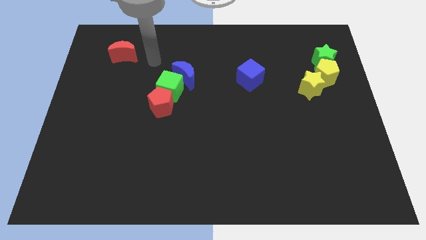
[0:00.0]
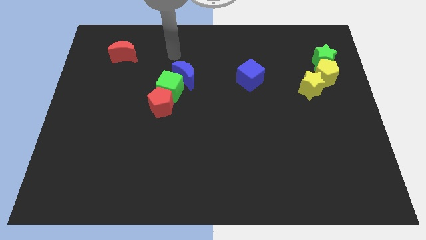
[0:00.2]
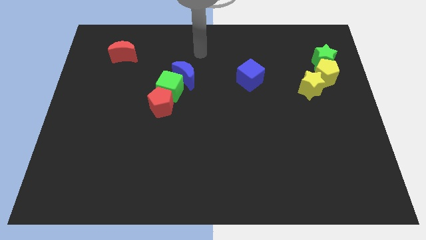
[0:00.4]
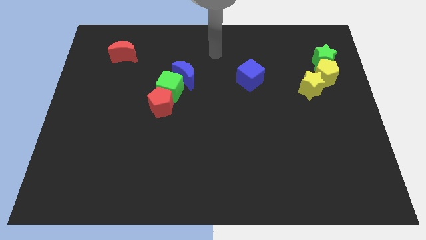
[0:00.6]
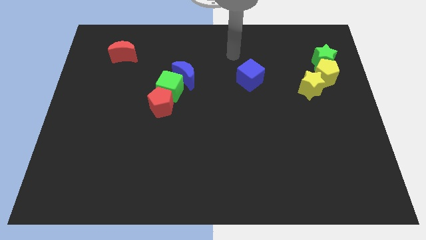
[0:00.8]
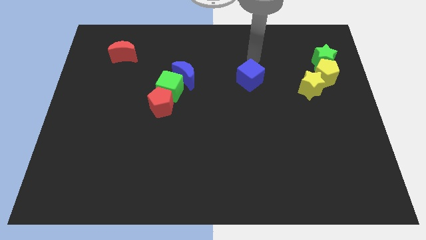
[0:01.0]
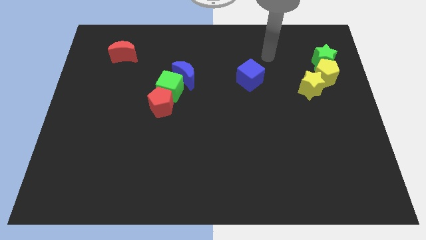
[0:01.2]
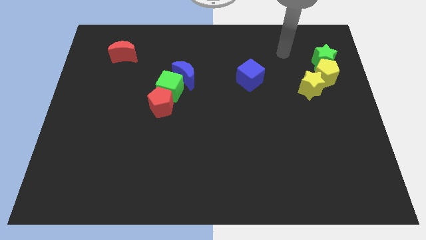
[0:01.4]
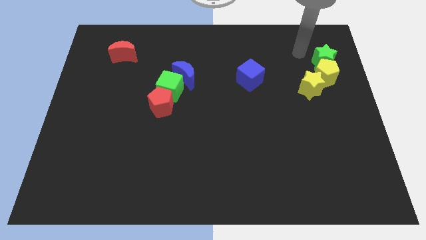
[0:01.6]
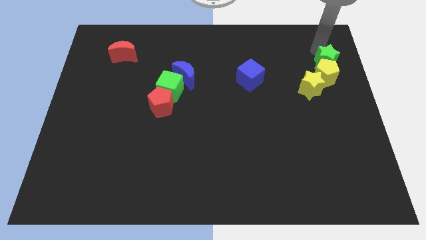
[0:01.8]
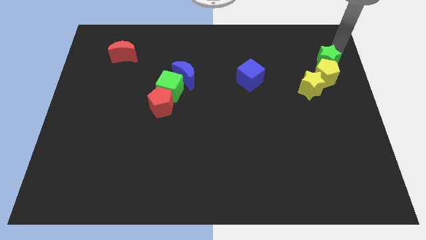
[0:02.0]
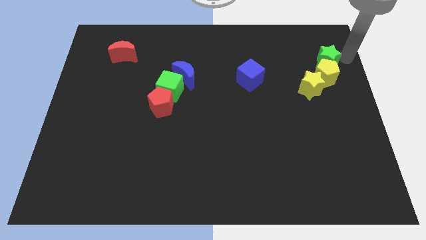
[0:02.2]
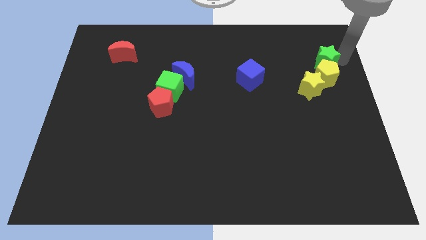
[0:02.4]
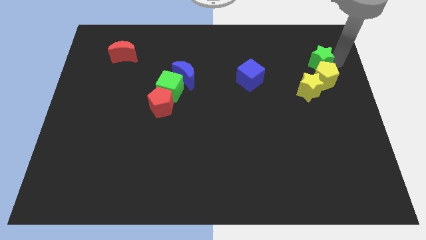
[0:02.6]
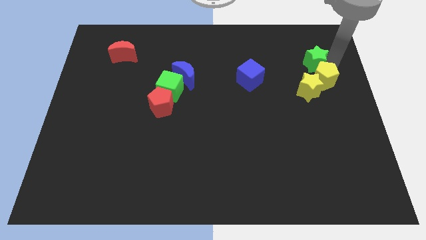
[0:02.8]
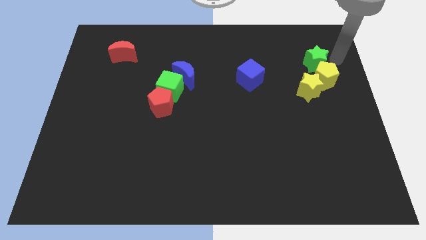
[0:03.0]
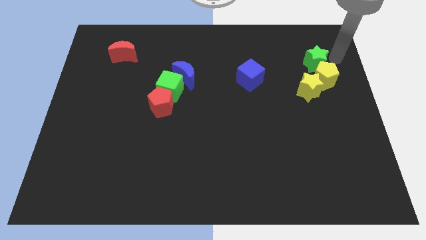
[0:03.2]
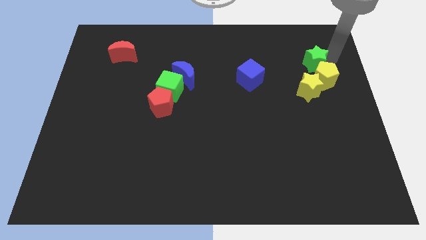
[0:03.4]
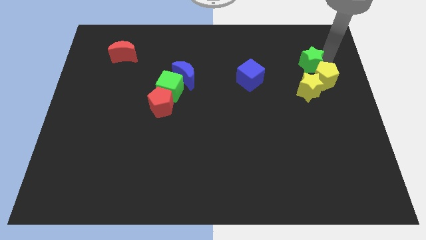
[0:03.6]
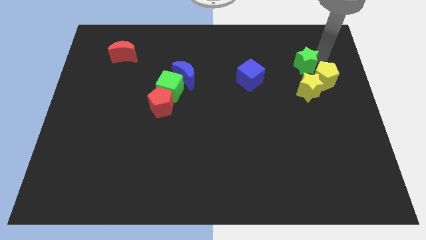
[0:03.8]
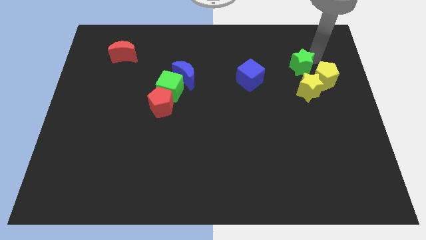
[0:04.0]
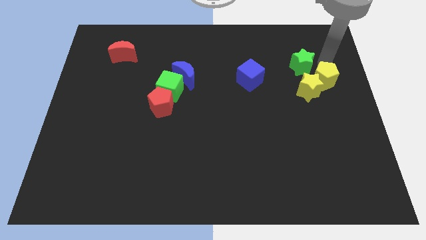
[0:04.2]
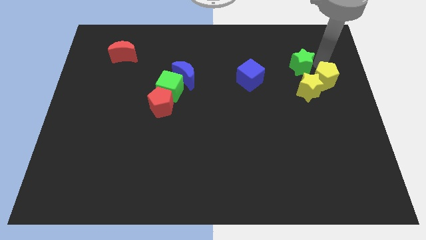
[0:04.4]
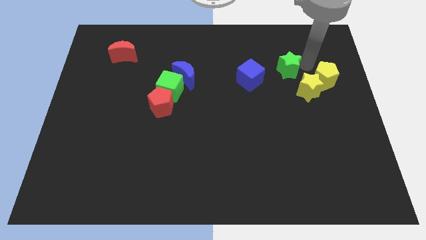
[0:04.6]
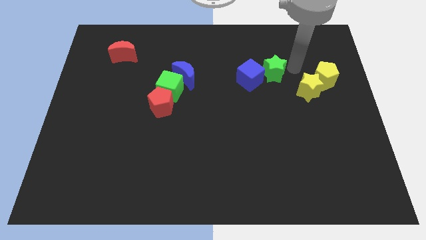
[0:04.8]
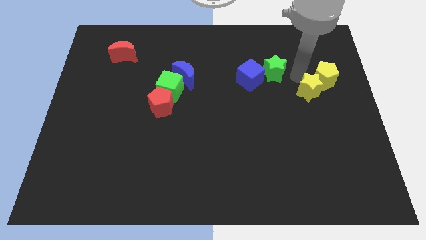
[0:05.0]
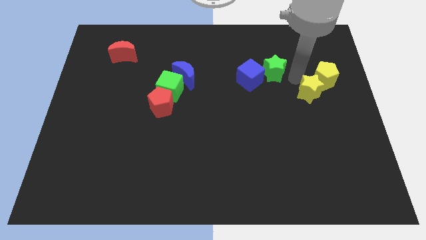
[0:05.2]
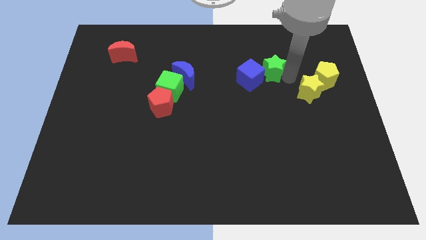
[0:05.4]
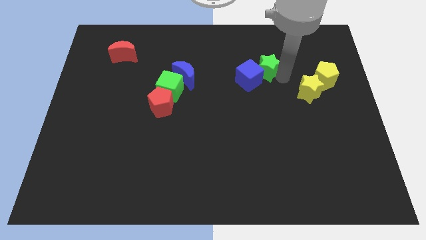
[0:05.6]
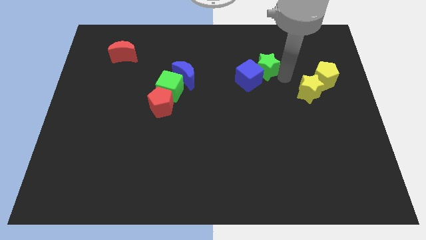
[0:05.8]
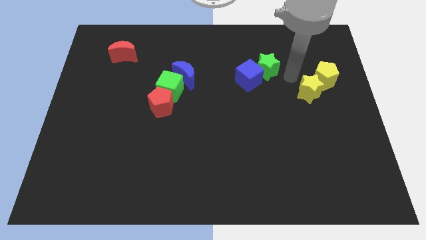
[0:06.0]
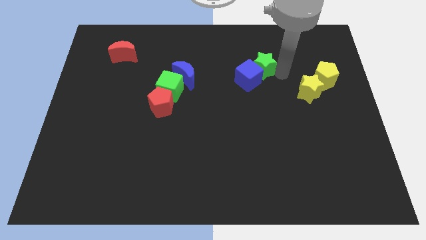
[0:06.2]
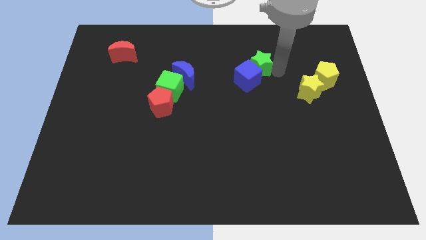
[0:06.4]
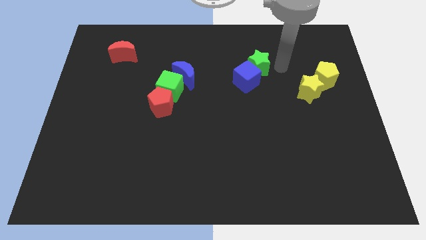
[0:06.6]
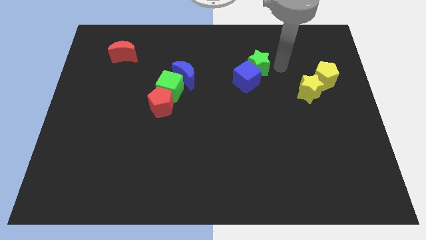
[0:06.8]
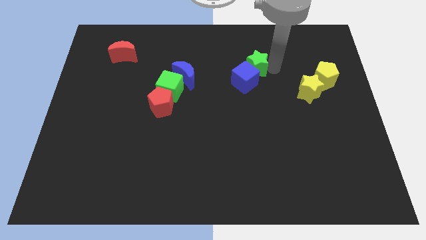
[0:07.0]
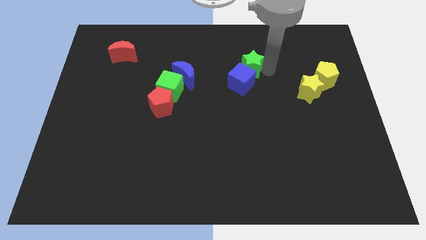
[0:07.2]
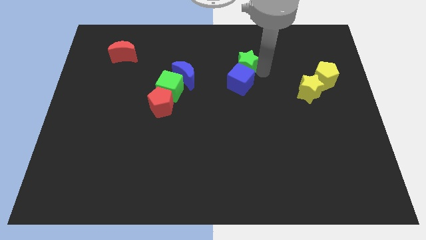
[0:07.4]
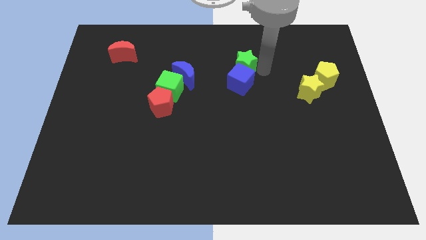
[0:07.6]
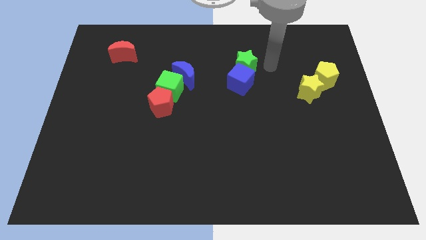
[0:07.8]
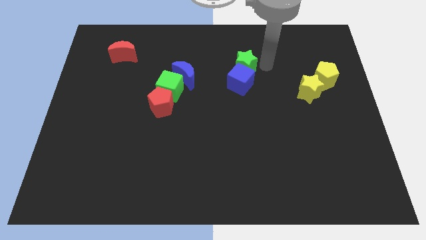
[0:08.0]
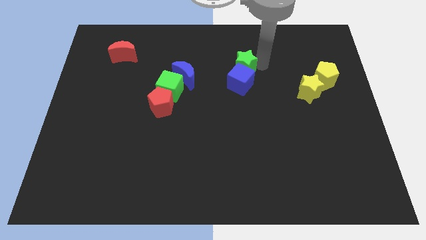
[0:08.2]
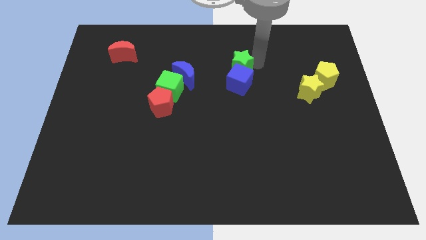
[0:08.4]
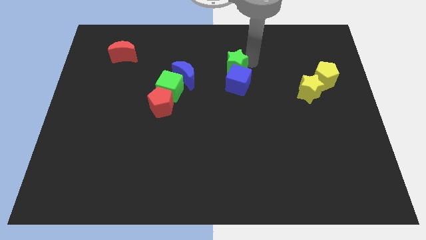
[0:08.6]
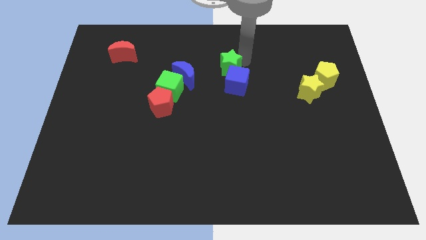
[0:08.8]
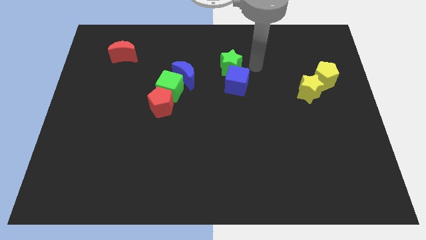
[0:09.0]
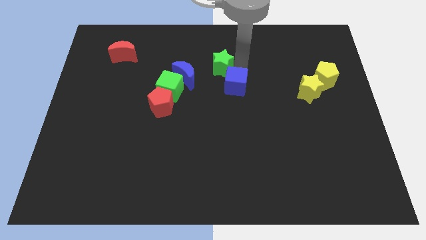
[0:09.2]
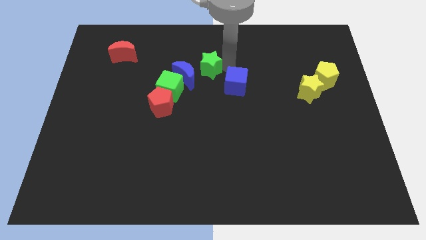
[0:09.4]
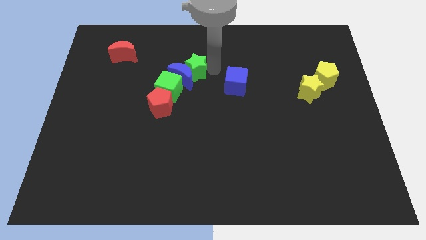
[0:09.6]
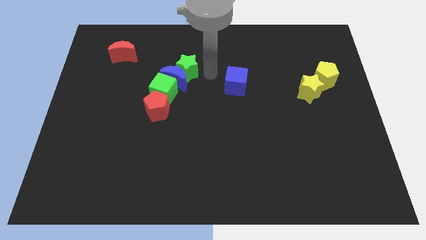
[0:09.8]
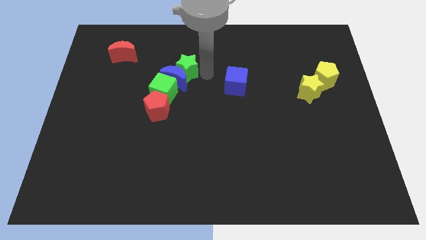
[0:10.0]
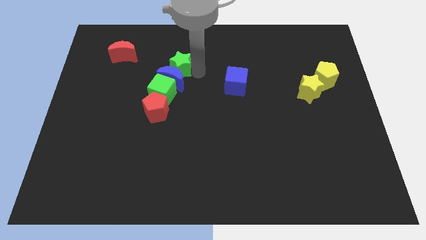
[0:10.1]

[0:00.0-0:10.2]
slide the green star to the top left side of the blue moon

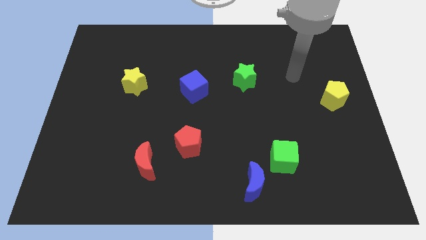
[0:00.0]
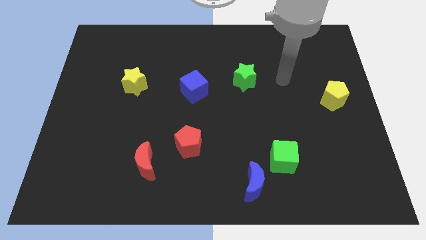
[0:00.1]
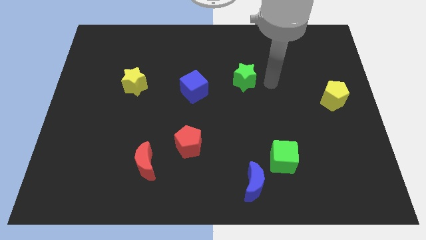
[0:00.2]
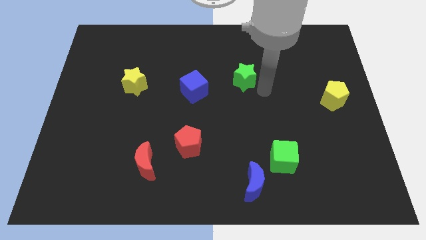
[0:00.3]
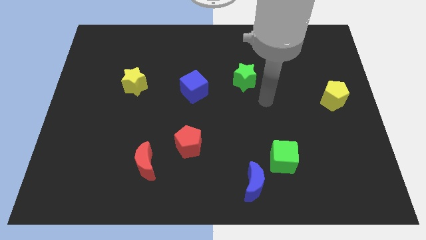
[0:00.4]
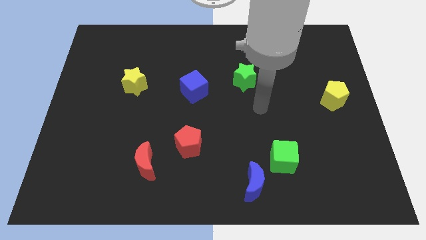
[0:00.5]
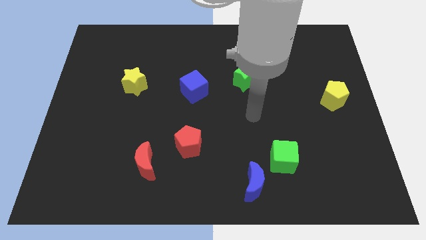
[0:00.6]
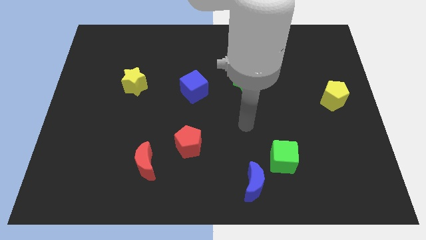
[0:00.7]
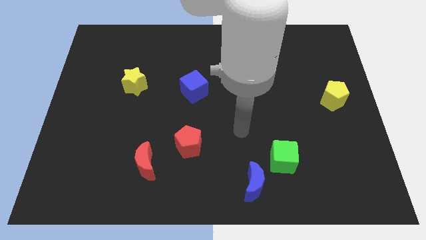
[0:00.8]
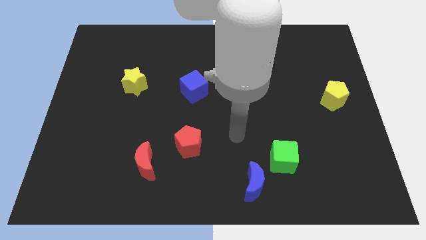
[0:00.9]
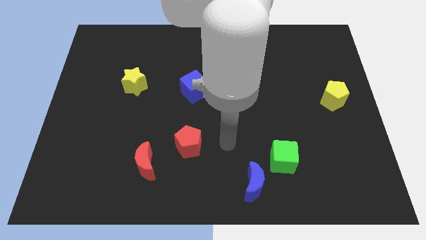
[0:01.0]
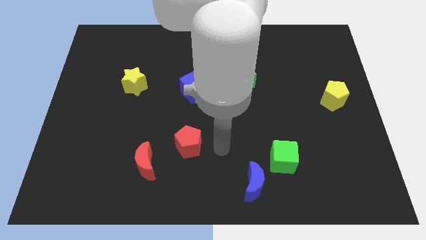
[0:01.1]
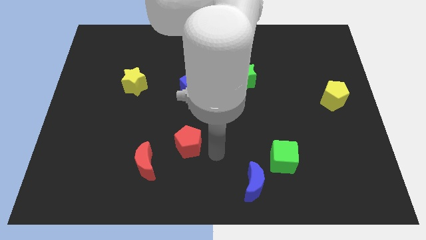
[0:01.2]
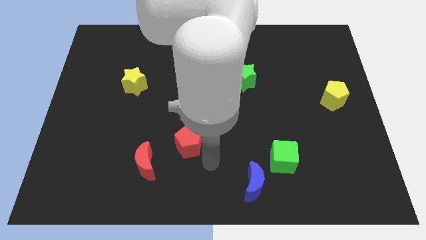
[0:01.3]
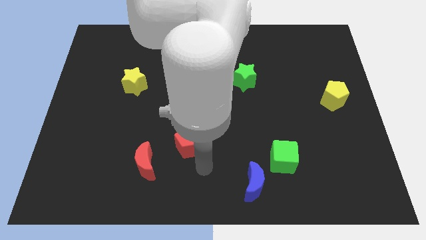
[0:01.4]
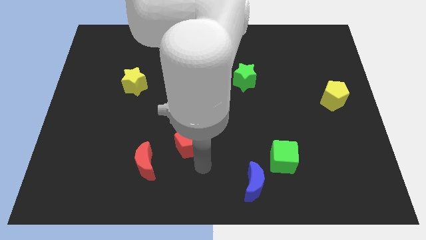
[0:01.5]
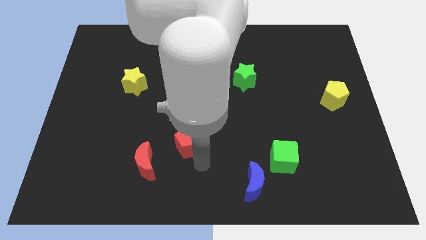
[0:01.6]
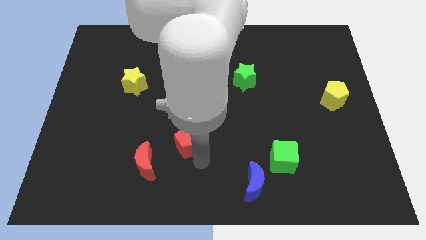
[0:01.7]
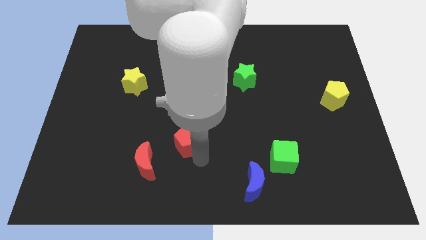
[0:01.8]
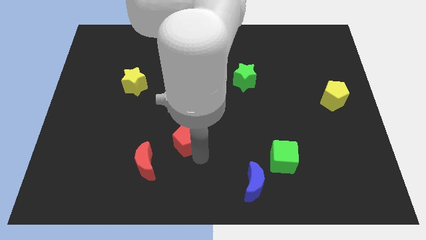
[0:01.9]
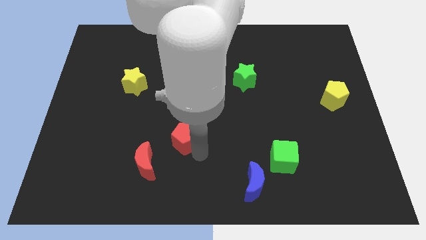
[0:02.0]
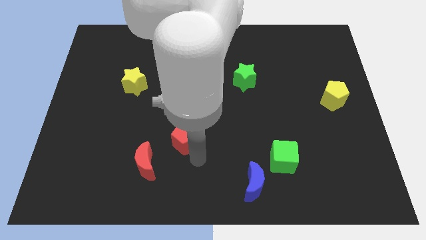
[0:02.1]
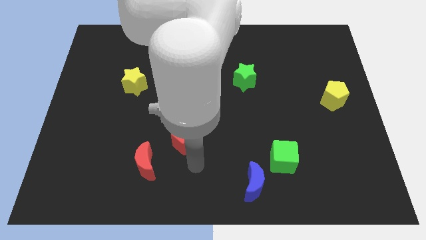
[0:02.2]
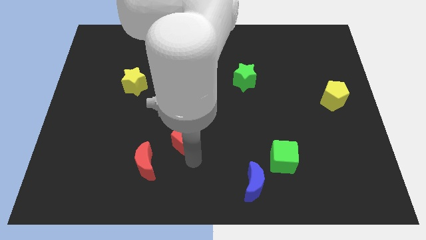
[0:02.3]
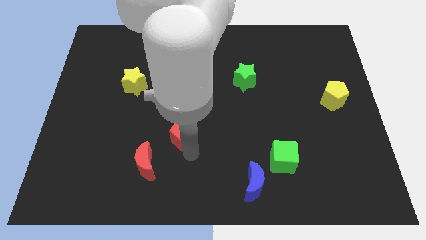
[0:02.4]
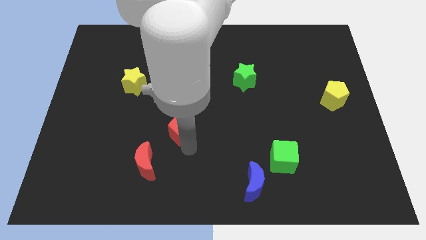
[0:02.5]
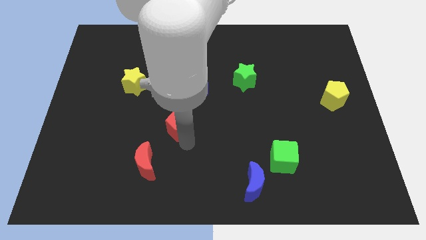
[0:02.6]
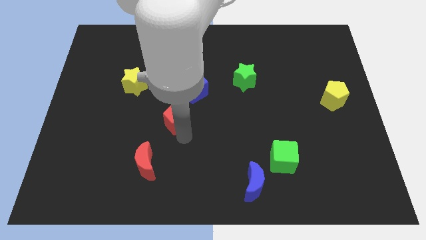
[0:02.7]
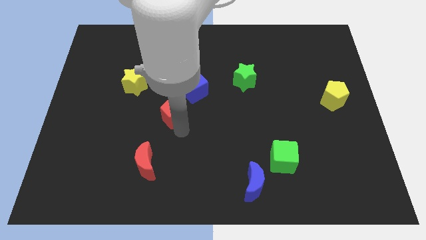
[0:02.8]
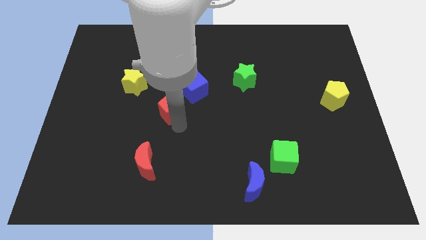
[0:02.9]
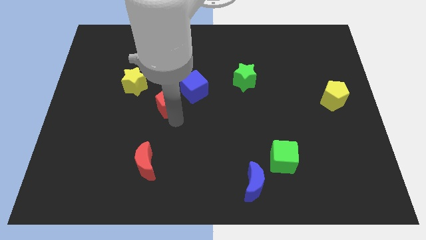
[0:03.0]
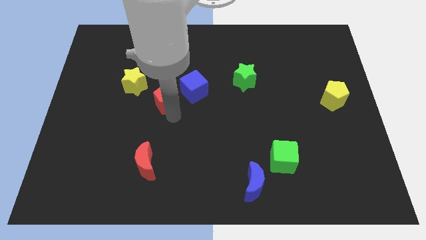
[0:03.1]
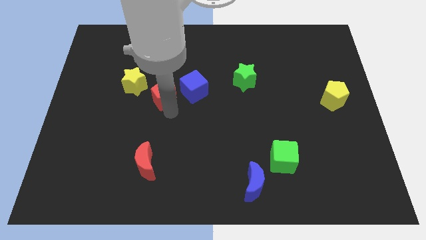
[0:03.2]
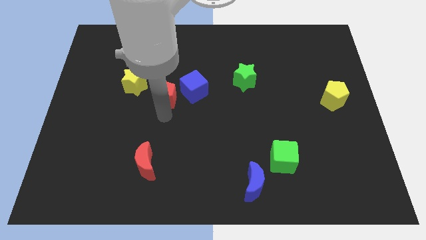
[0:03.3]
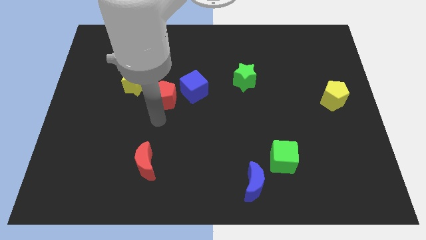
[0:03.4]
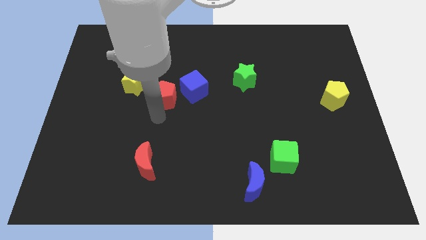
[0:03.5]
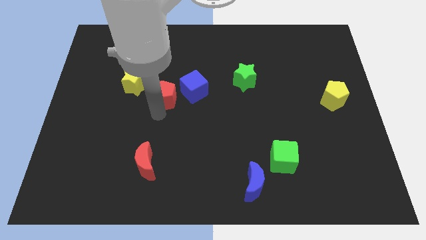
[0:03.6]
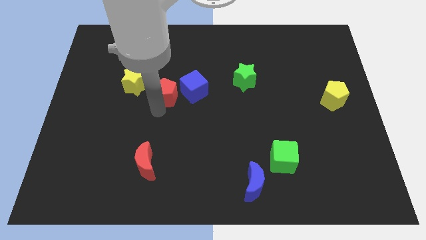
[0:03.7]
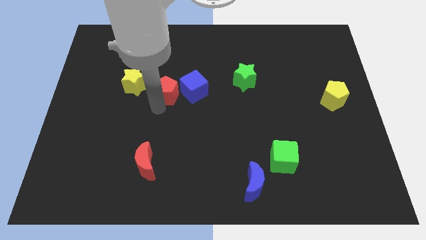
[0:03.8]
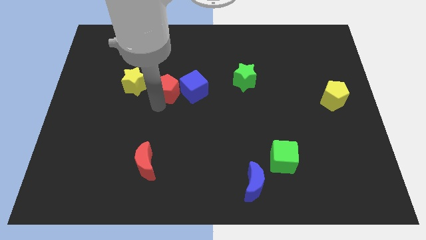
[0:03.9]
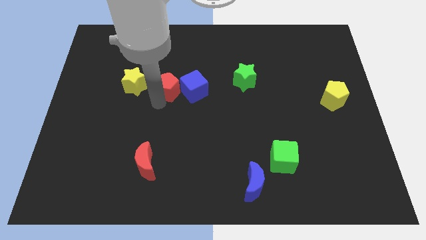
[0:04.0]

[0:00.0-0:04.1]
put the red pentagon to the top left of the blue cube
